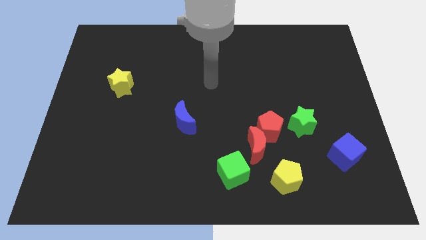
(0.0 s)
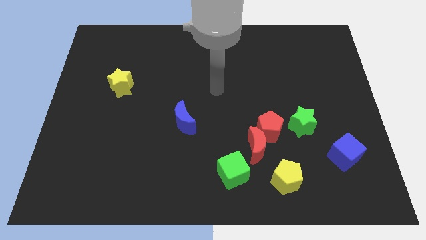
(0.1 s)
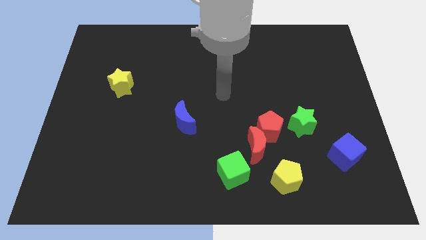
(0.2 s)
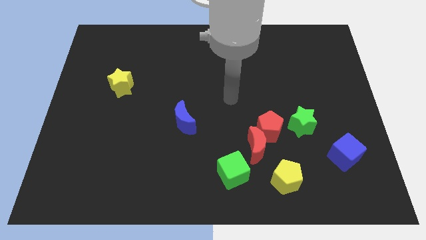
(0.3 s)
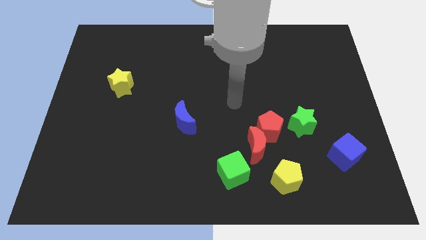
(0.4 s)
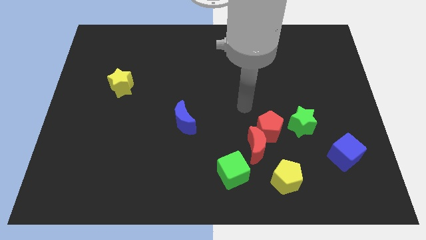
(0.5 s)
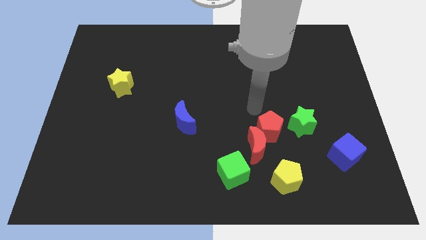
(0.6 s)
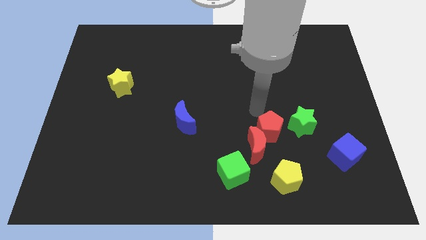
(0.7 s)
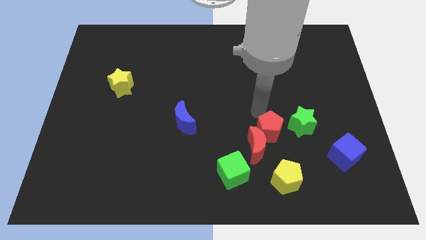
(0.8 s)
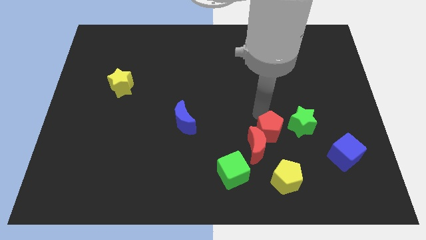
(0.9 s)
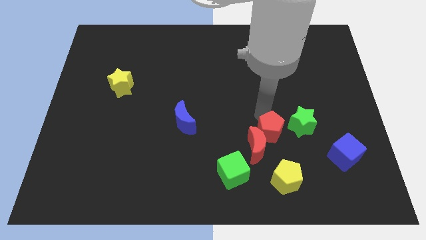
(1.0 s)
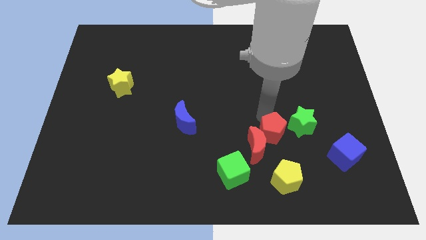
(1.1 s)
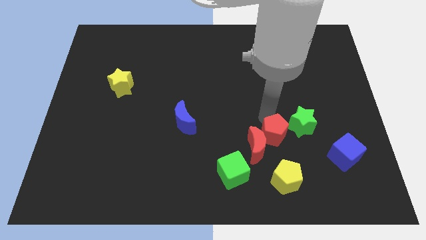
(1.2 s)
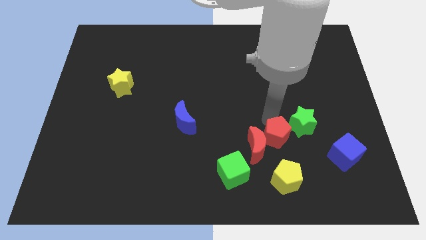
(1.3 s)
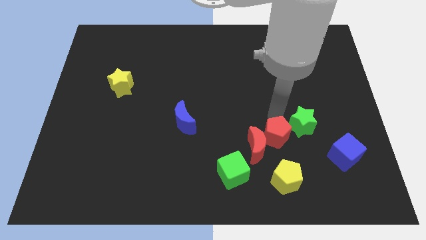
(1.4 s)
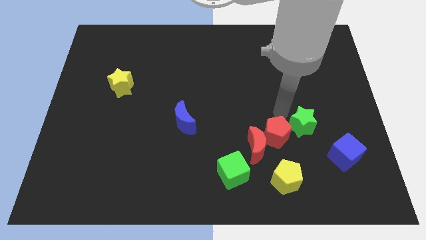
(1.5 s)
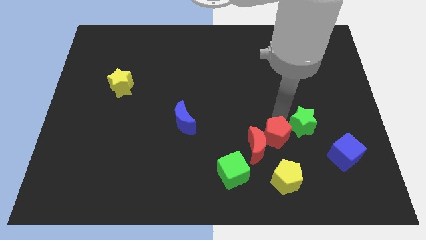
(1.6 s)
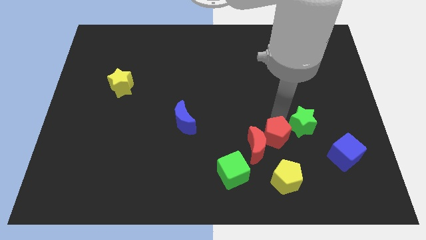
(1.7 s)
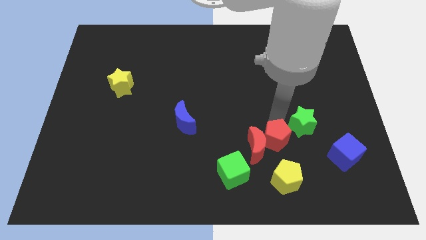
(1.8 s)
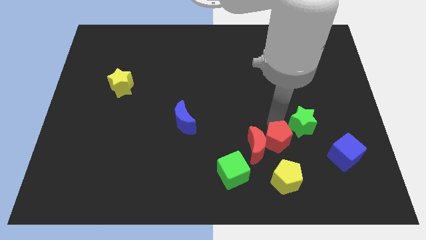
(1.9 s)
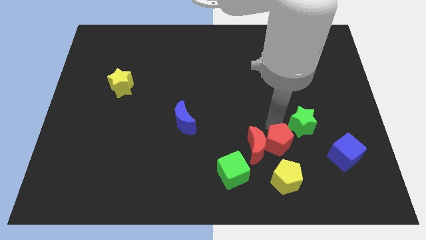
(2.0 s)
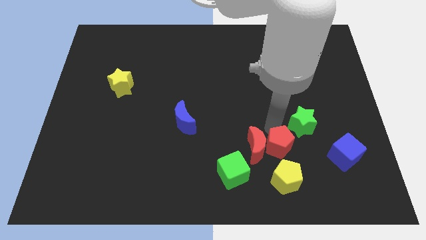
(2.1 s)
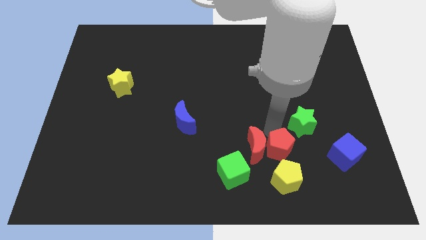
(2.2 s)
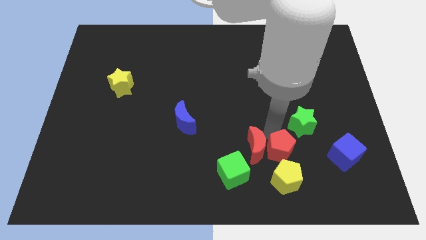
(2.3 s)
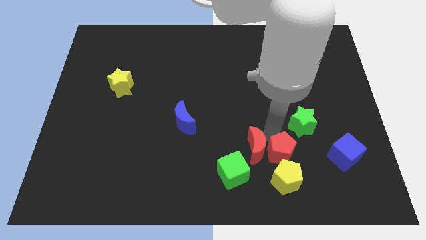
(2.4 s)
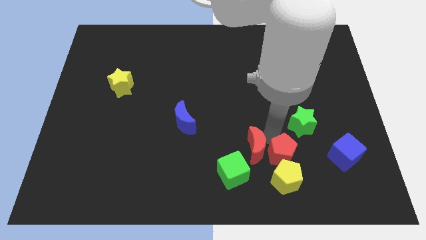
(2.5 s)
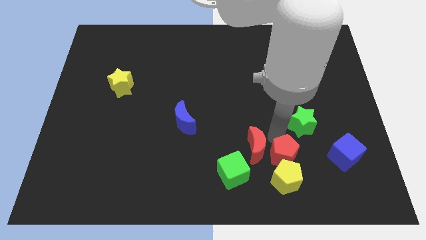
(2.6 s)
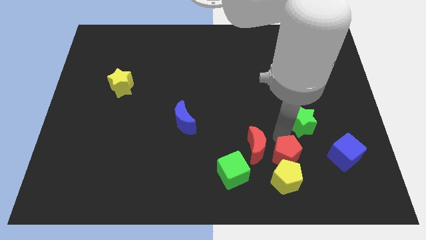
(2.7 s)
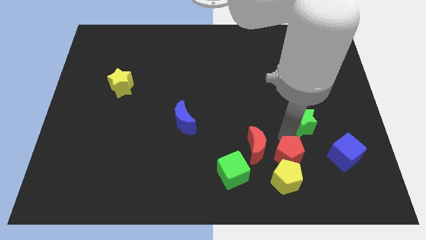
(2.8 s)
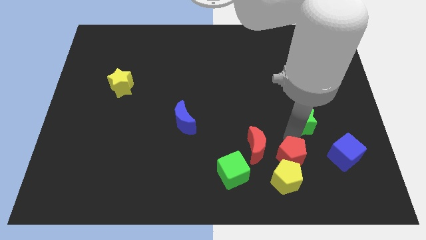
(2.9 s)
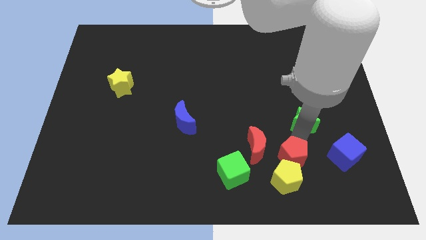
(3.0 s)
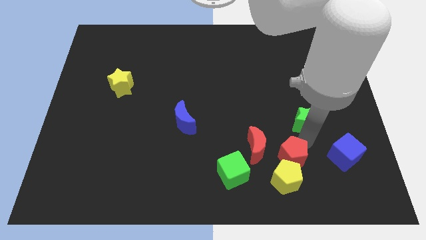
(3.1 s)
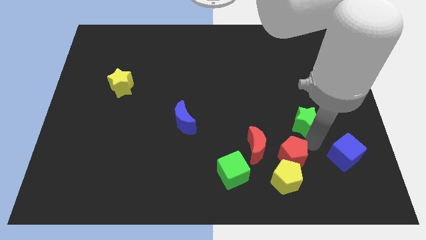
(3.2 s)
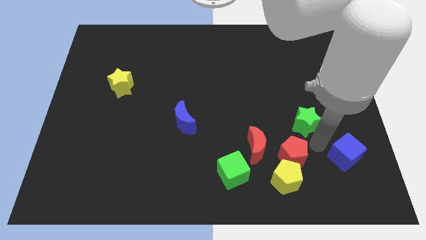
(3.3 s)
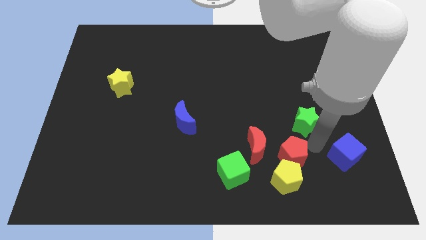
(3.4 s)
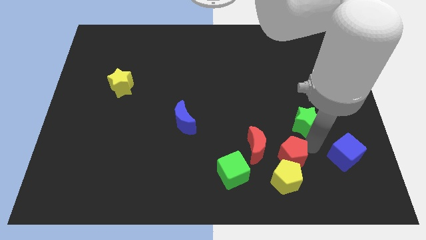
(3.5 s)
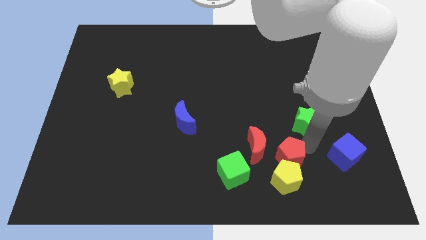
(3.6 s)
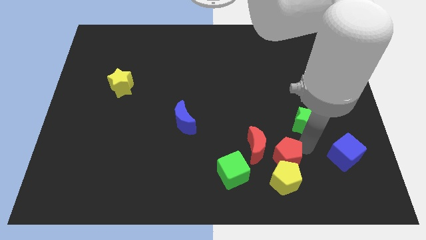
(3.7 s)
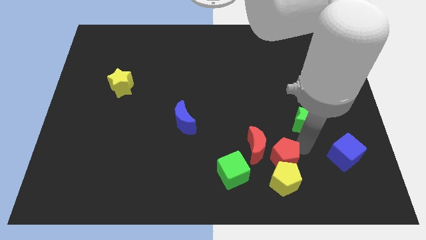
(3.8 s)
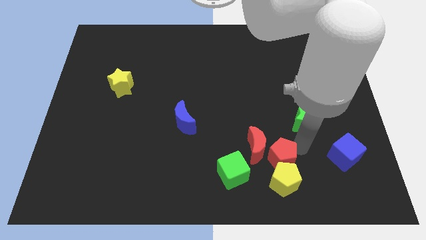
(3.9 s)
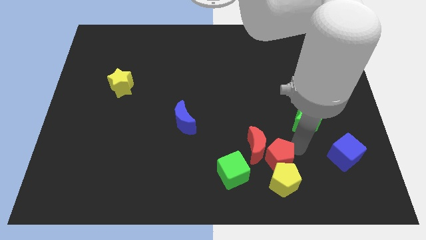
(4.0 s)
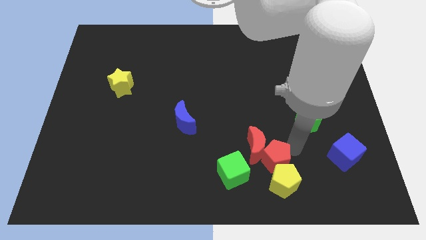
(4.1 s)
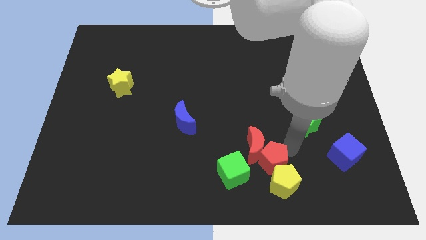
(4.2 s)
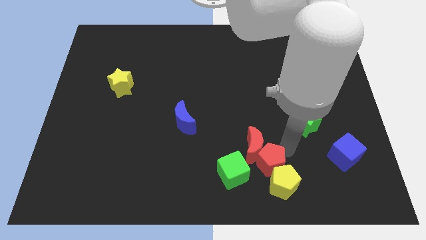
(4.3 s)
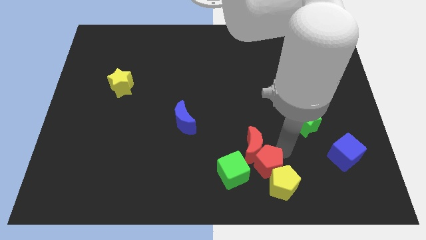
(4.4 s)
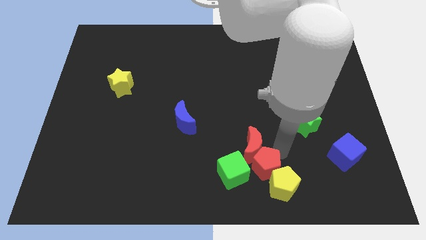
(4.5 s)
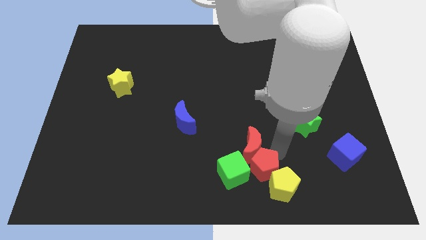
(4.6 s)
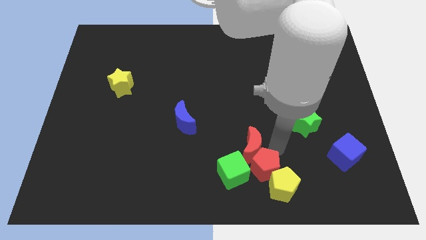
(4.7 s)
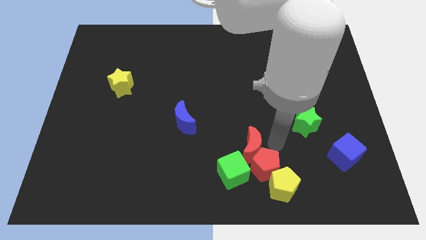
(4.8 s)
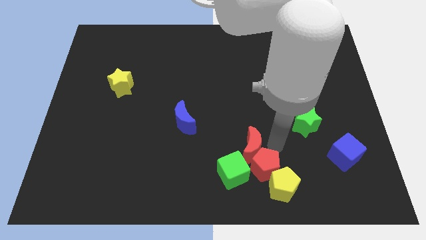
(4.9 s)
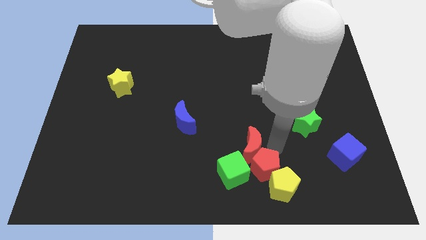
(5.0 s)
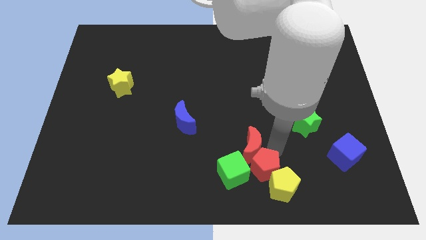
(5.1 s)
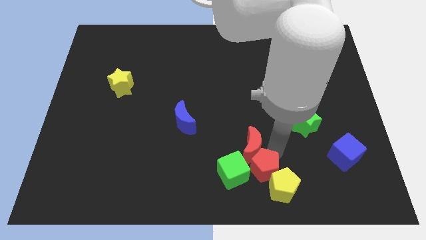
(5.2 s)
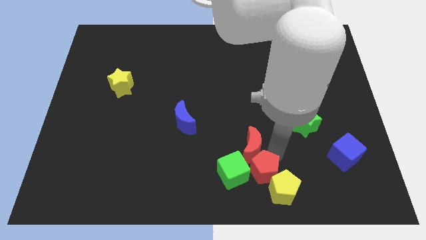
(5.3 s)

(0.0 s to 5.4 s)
move the red pentagon to the bottom side

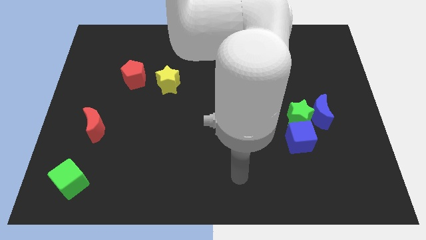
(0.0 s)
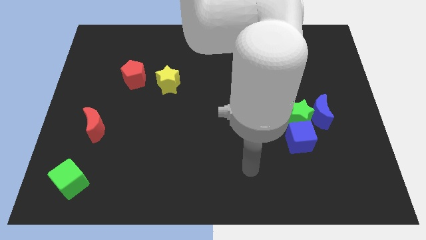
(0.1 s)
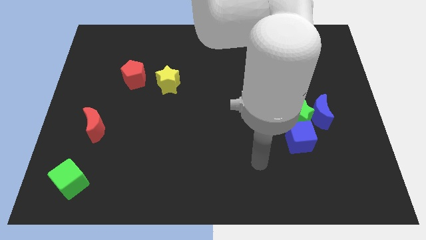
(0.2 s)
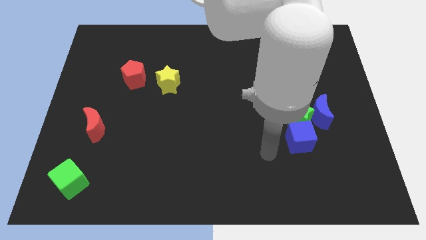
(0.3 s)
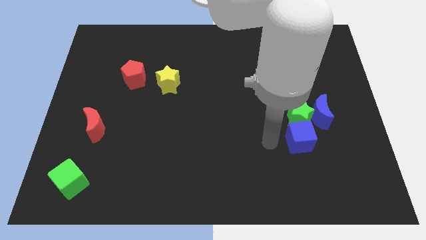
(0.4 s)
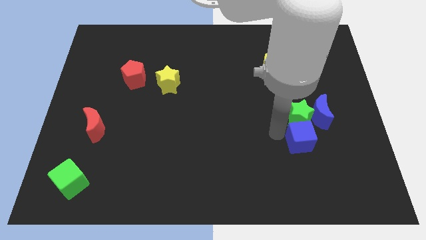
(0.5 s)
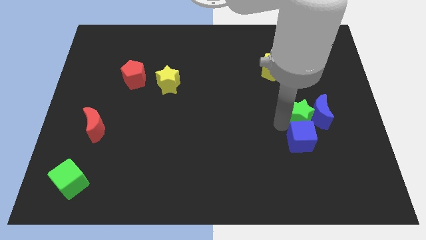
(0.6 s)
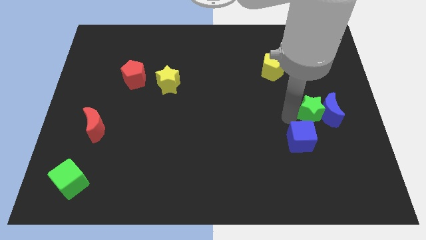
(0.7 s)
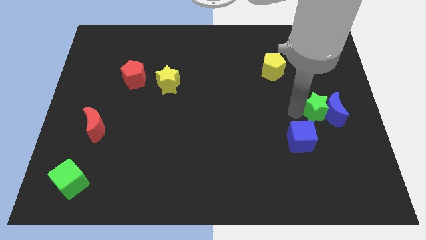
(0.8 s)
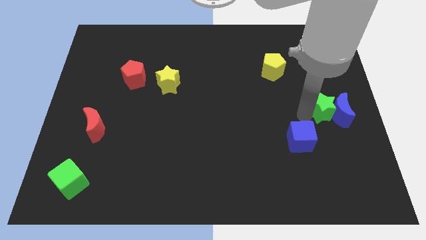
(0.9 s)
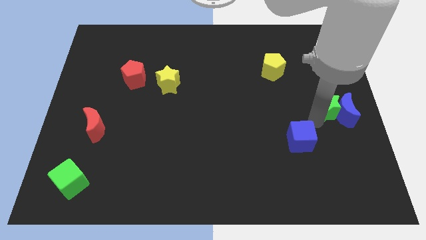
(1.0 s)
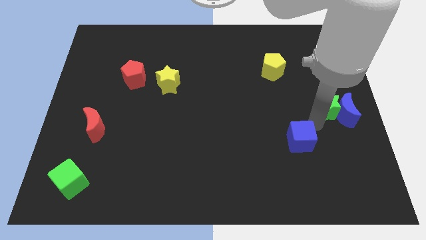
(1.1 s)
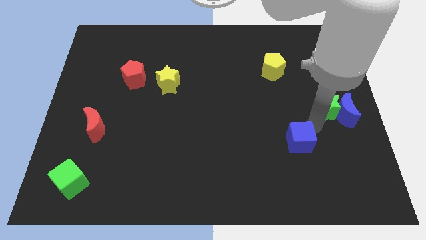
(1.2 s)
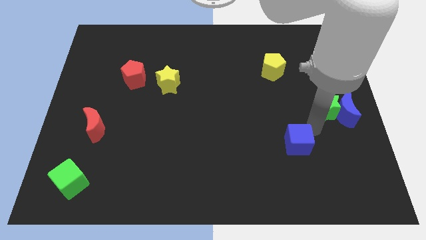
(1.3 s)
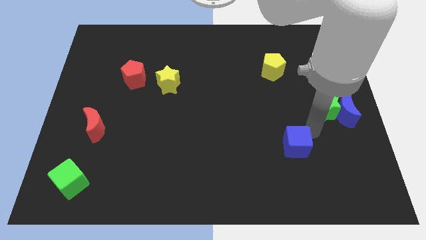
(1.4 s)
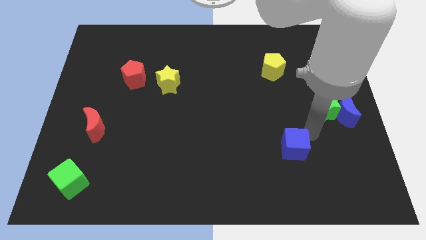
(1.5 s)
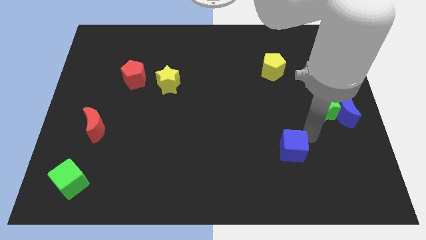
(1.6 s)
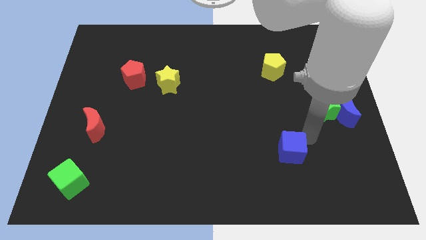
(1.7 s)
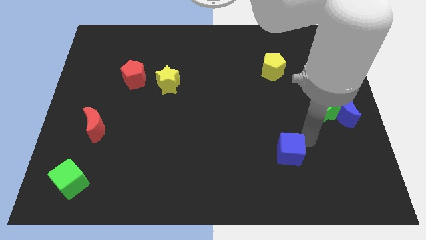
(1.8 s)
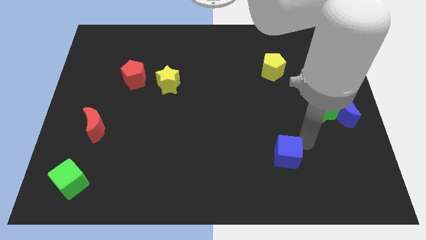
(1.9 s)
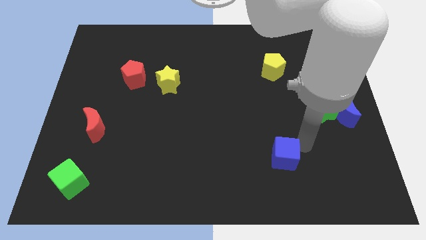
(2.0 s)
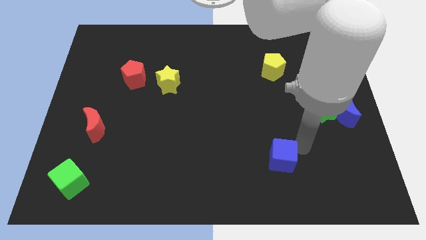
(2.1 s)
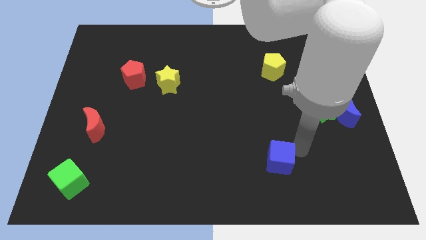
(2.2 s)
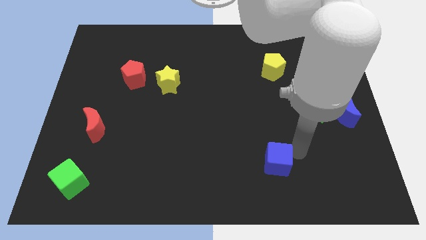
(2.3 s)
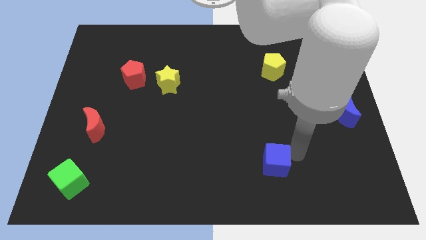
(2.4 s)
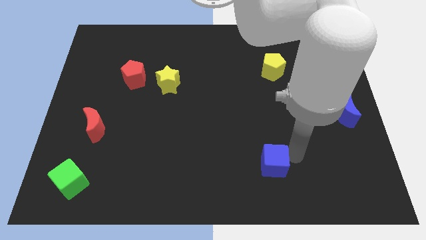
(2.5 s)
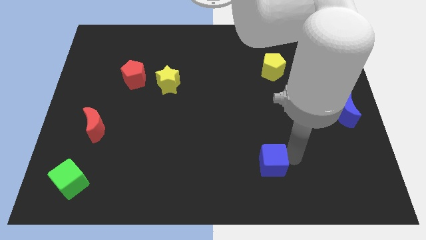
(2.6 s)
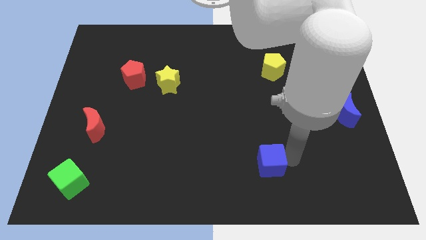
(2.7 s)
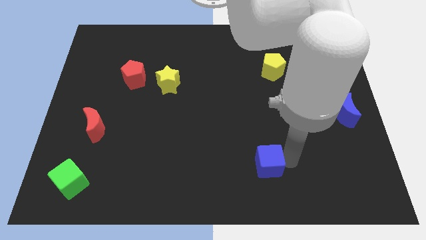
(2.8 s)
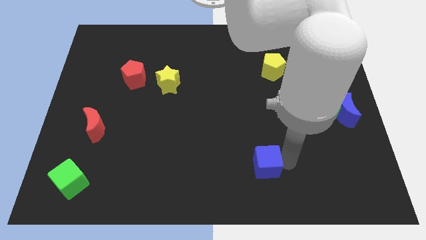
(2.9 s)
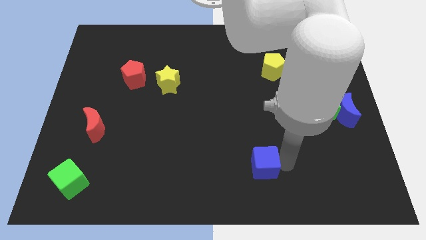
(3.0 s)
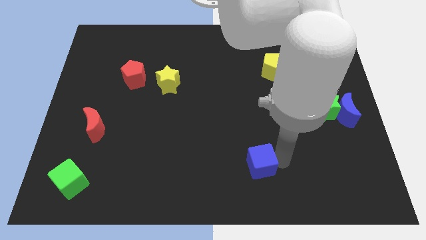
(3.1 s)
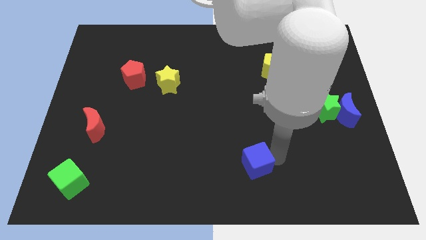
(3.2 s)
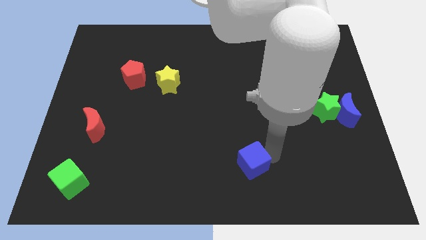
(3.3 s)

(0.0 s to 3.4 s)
push the blue cube to the bottom side
